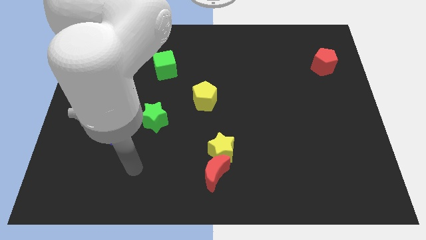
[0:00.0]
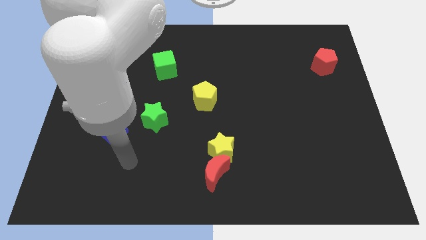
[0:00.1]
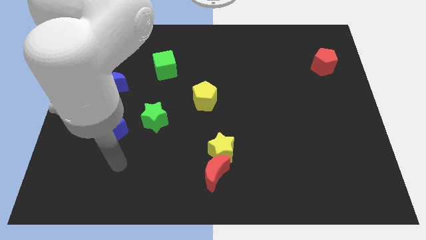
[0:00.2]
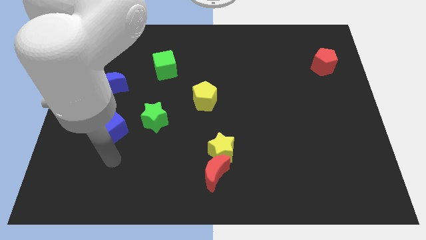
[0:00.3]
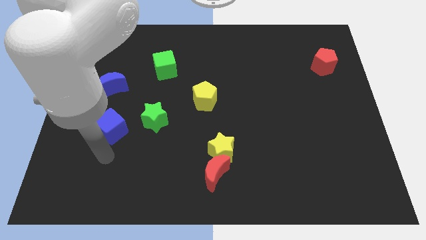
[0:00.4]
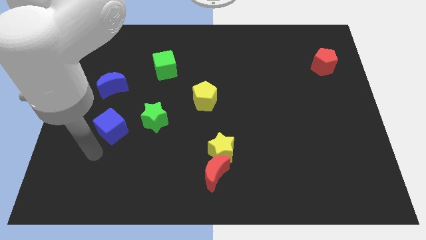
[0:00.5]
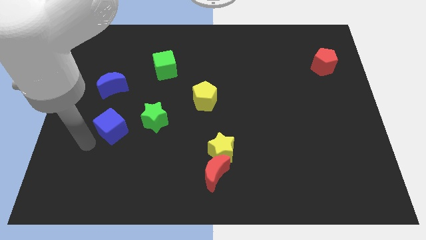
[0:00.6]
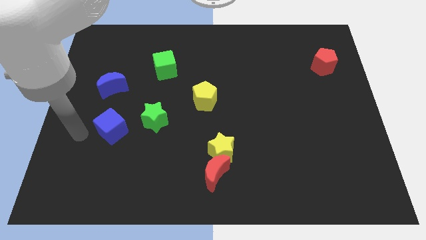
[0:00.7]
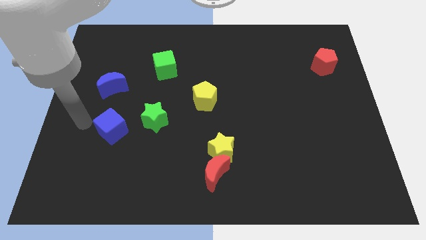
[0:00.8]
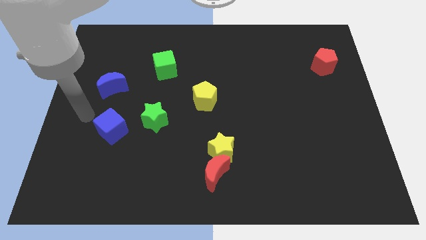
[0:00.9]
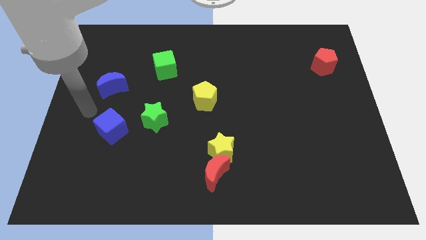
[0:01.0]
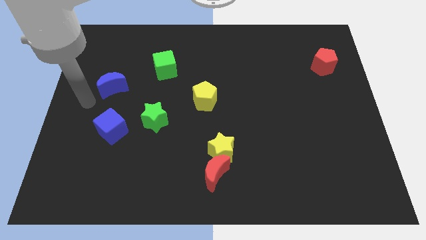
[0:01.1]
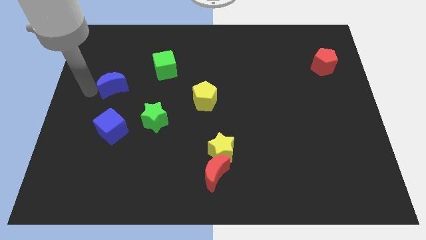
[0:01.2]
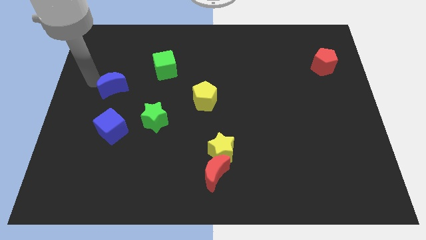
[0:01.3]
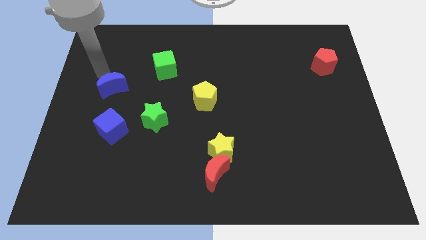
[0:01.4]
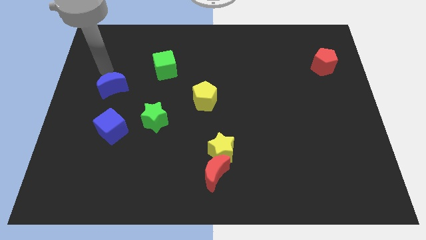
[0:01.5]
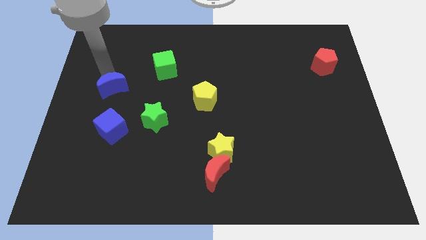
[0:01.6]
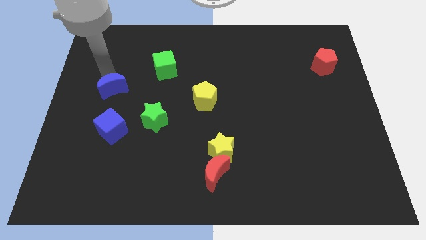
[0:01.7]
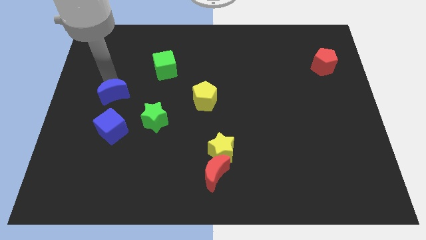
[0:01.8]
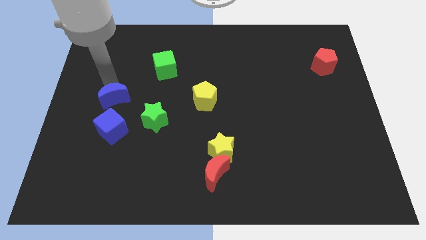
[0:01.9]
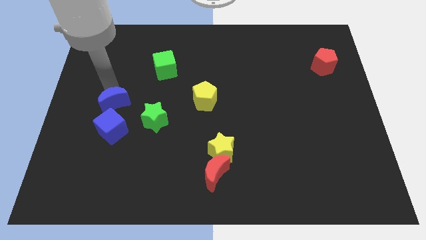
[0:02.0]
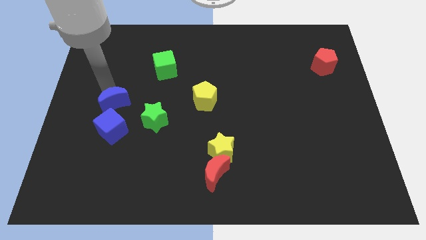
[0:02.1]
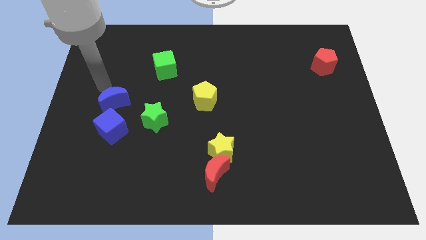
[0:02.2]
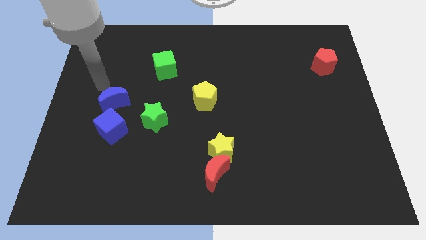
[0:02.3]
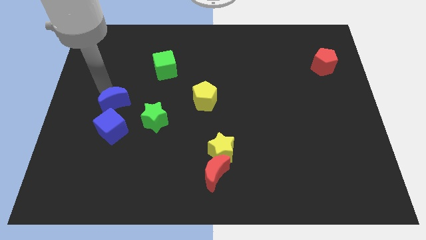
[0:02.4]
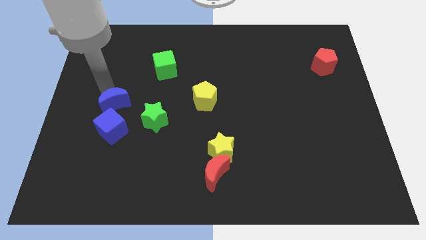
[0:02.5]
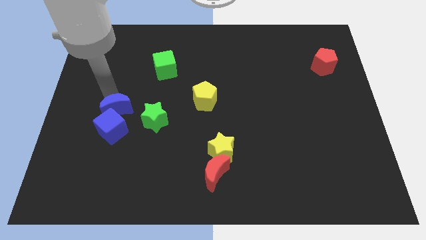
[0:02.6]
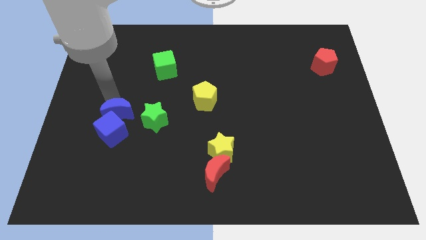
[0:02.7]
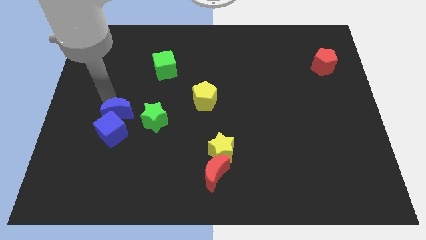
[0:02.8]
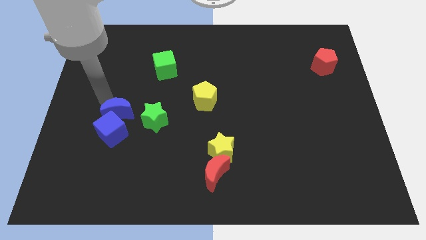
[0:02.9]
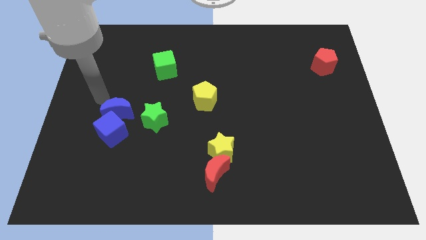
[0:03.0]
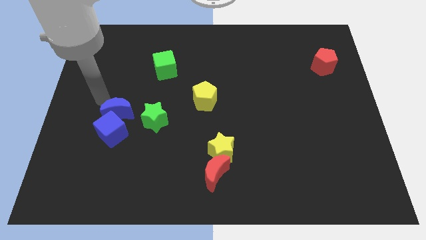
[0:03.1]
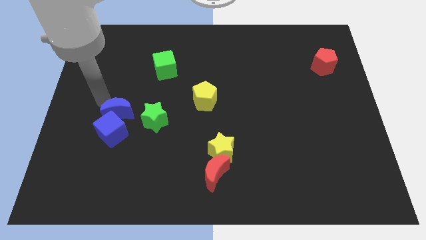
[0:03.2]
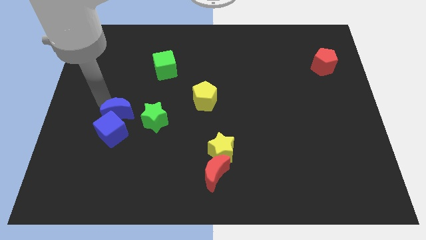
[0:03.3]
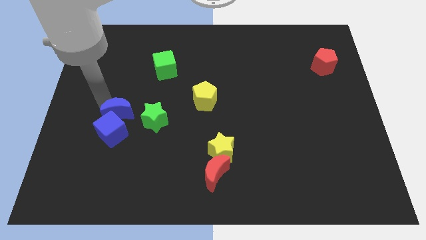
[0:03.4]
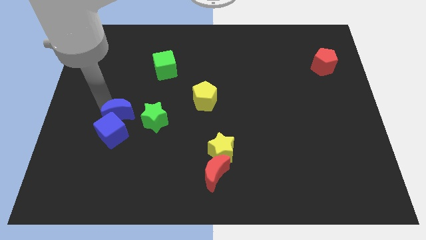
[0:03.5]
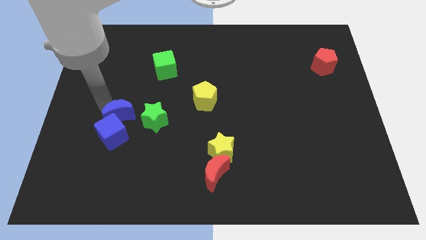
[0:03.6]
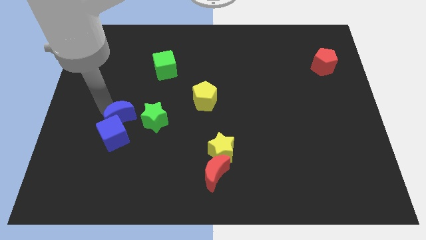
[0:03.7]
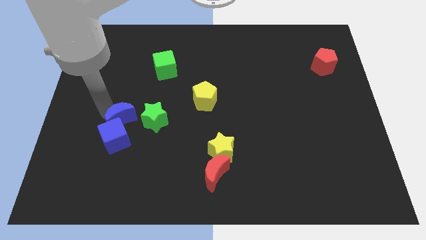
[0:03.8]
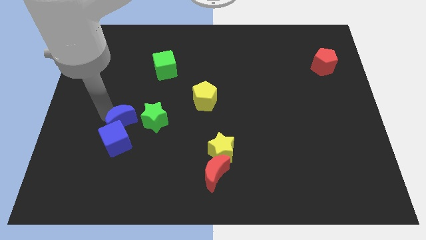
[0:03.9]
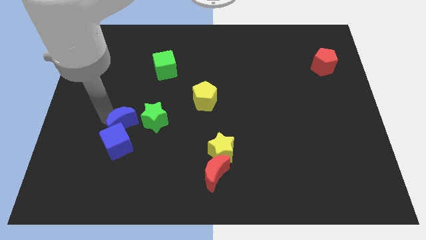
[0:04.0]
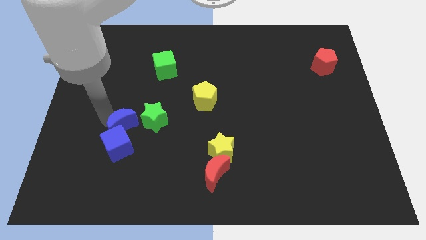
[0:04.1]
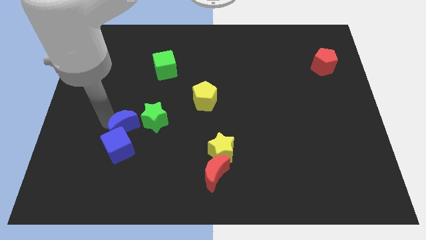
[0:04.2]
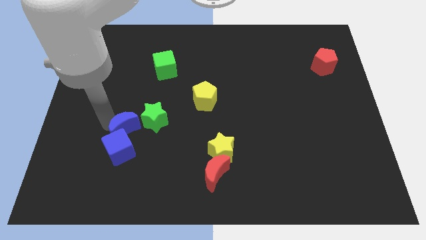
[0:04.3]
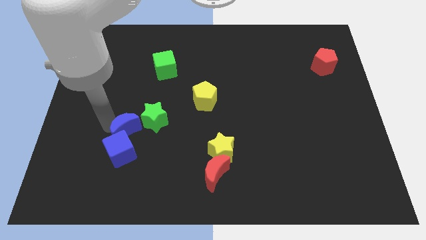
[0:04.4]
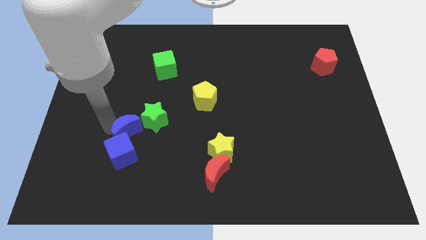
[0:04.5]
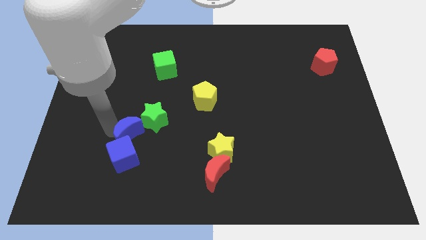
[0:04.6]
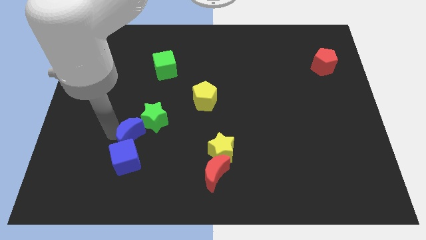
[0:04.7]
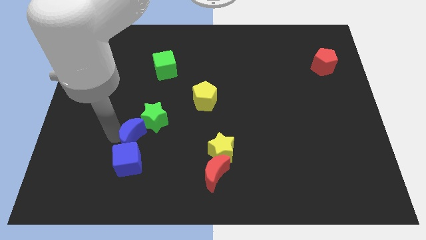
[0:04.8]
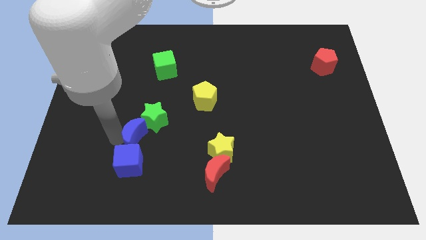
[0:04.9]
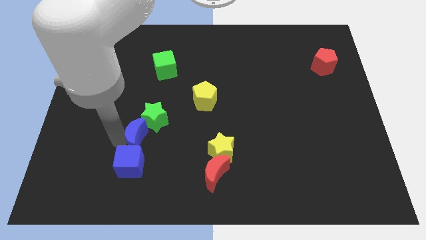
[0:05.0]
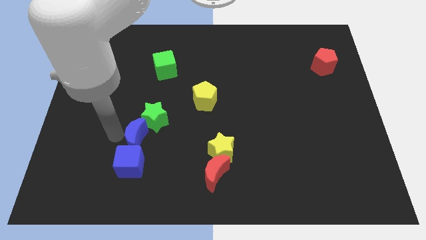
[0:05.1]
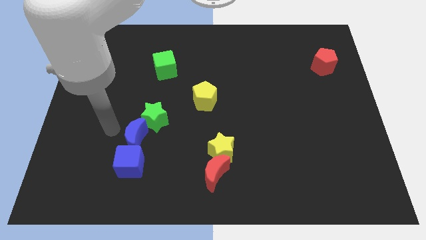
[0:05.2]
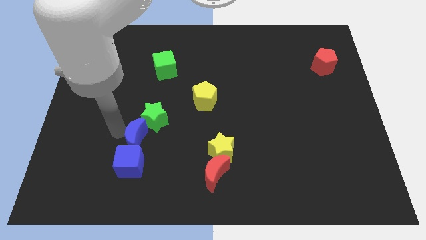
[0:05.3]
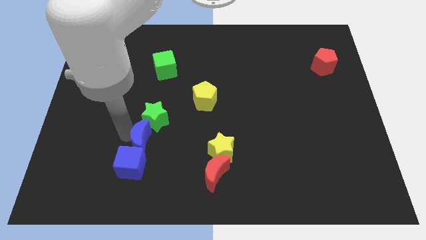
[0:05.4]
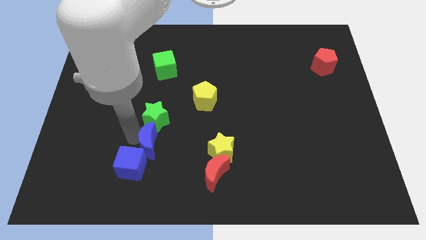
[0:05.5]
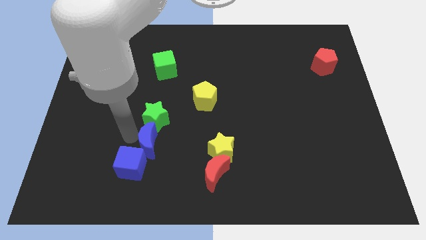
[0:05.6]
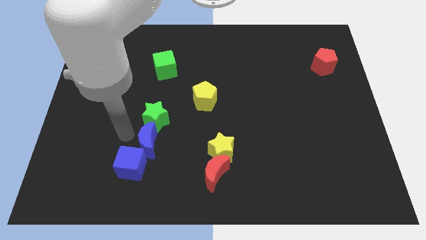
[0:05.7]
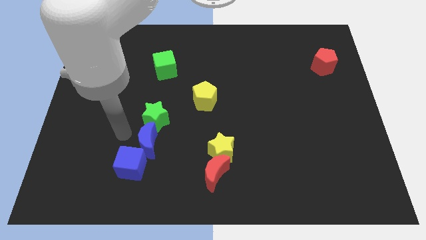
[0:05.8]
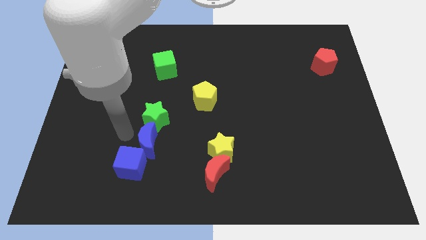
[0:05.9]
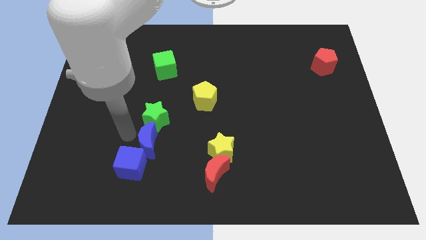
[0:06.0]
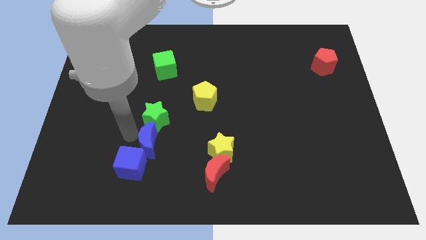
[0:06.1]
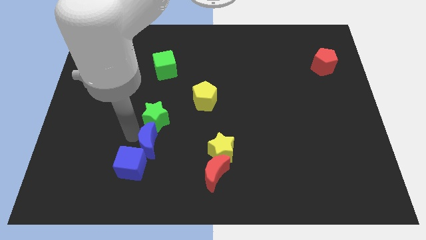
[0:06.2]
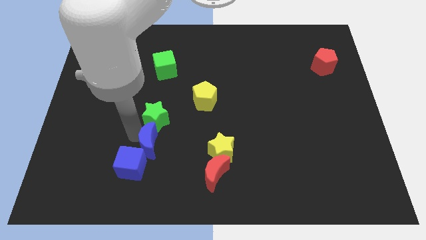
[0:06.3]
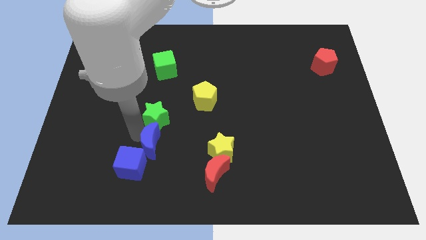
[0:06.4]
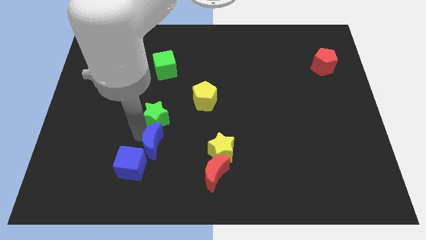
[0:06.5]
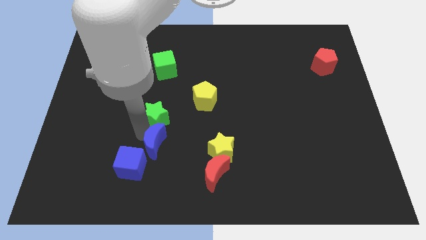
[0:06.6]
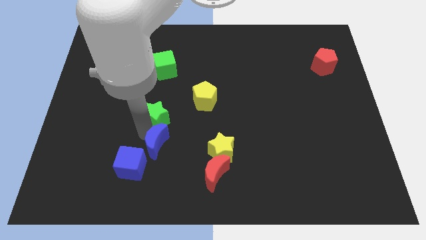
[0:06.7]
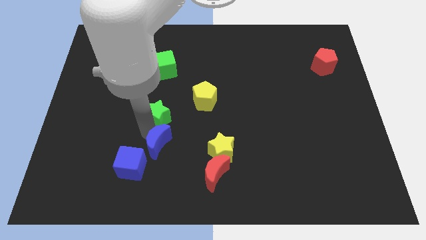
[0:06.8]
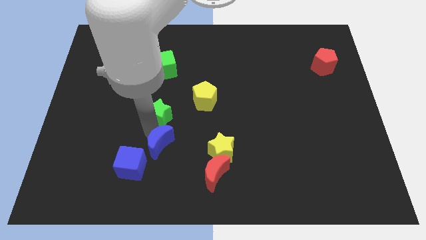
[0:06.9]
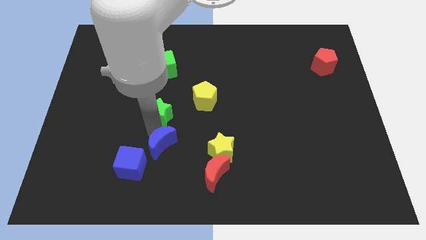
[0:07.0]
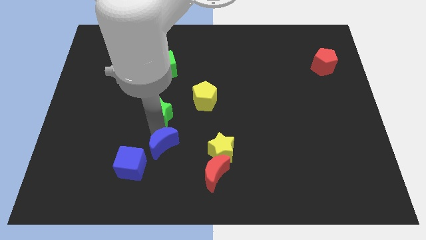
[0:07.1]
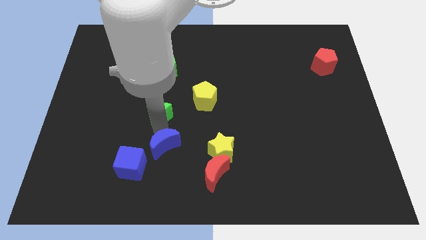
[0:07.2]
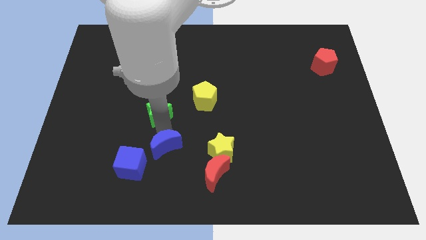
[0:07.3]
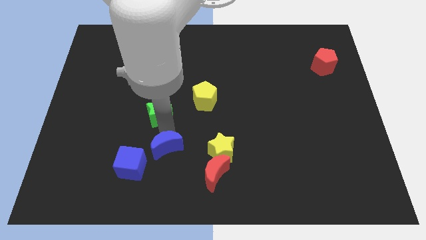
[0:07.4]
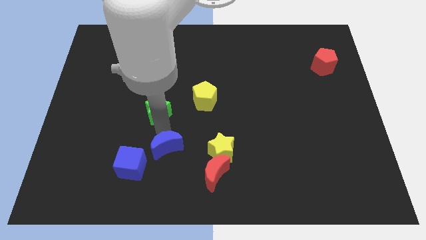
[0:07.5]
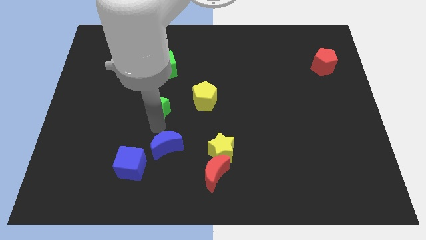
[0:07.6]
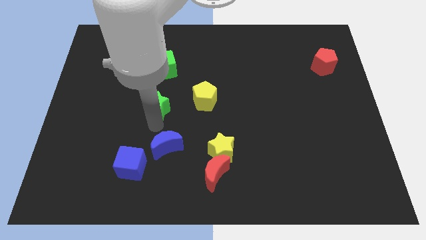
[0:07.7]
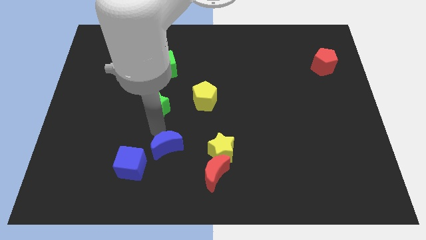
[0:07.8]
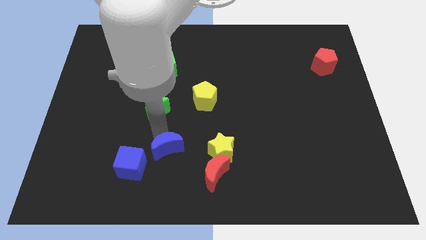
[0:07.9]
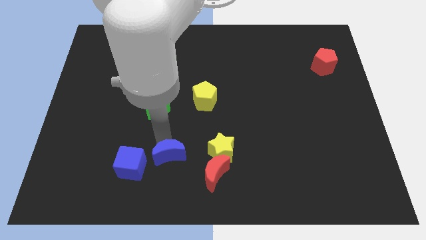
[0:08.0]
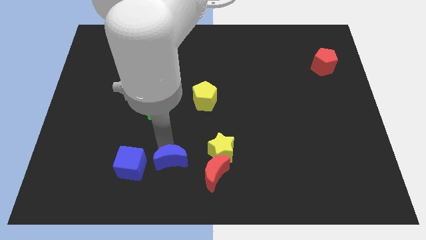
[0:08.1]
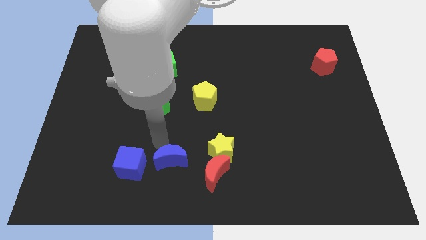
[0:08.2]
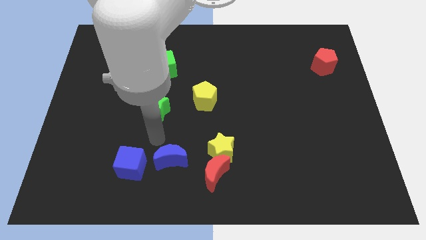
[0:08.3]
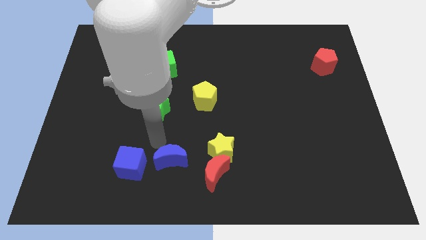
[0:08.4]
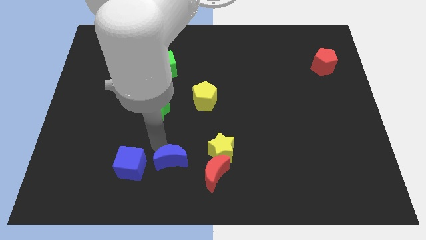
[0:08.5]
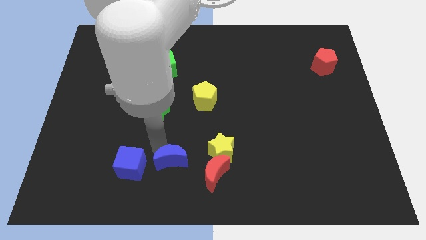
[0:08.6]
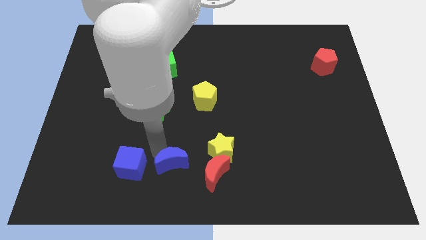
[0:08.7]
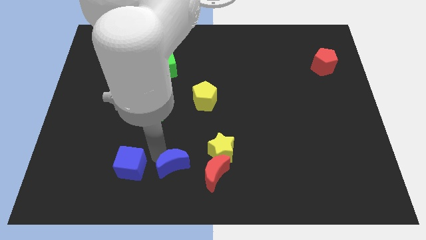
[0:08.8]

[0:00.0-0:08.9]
move the blue moon to the bottom
